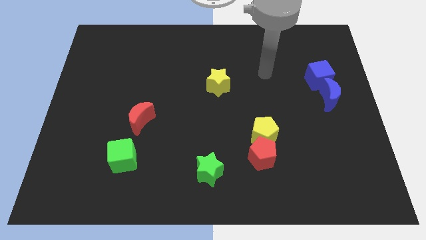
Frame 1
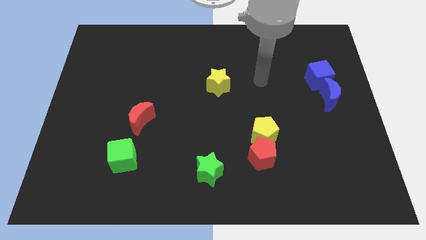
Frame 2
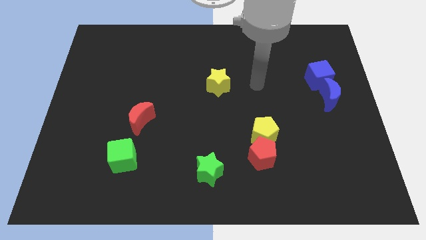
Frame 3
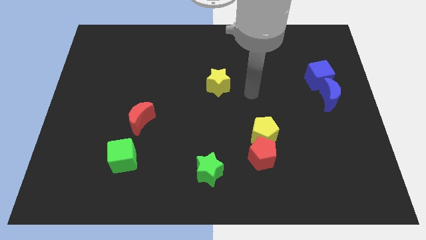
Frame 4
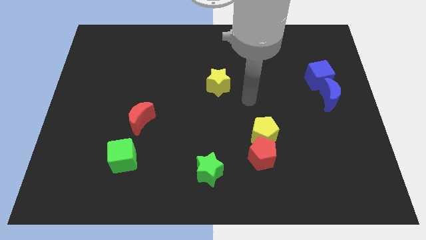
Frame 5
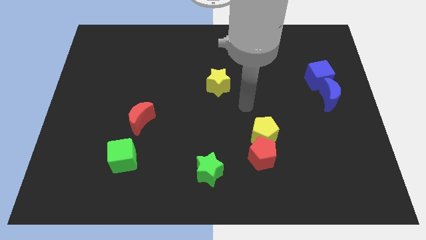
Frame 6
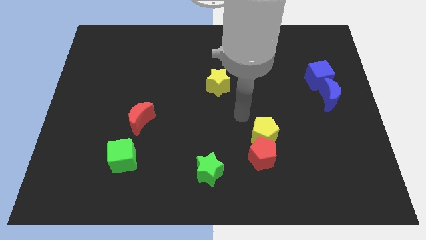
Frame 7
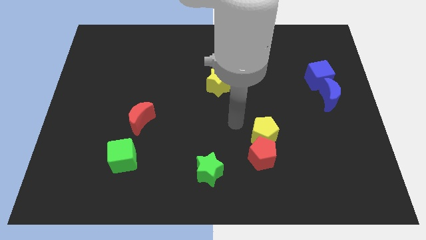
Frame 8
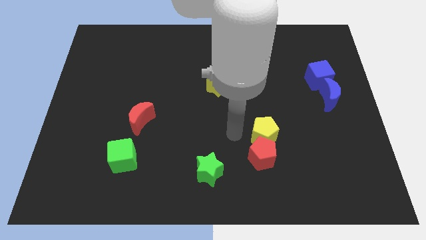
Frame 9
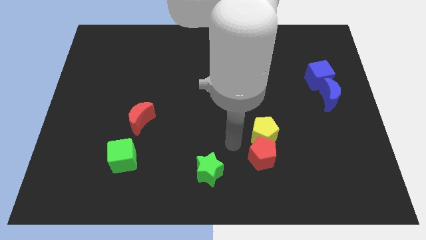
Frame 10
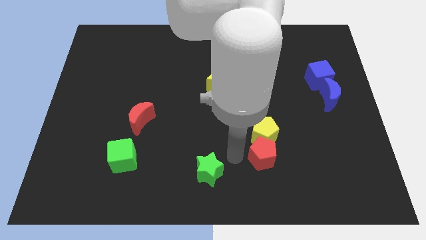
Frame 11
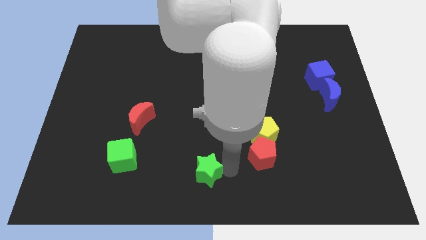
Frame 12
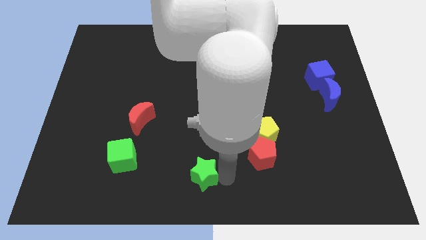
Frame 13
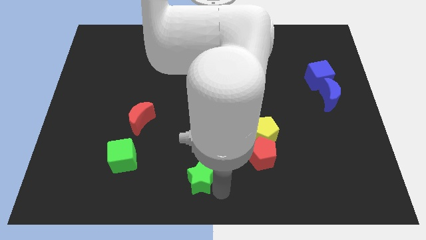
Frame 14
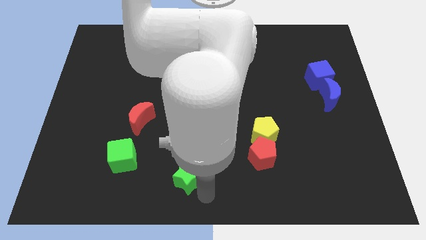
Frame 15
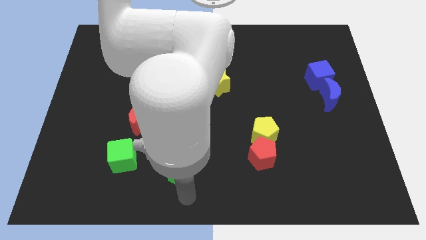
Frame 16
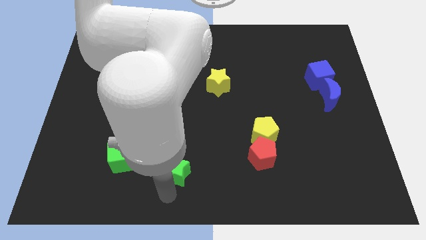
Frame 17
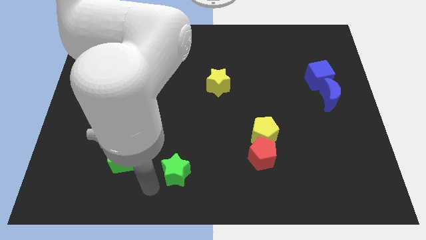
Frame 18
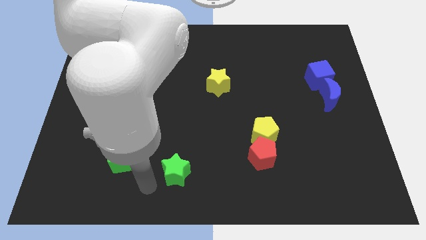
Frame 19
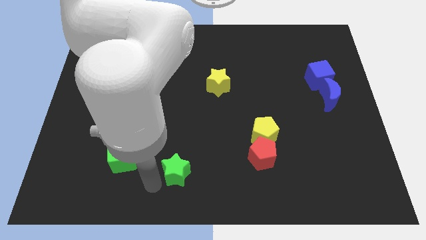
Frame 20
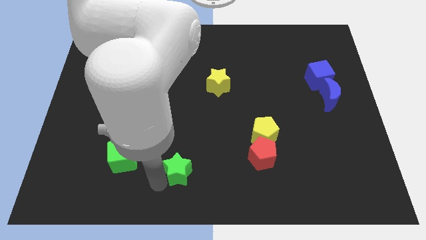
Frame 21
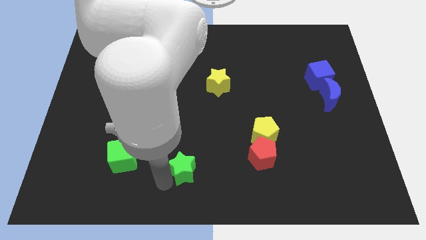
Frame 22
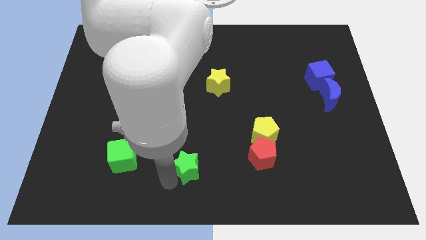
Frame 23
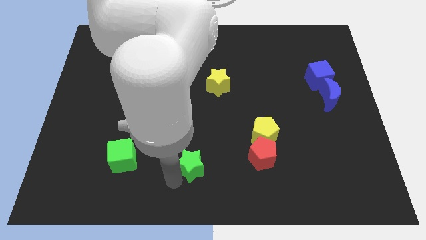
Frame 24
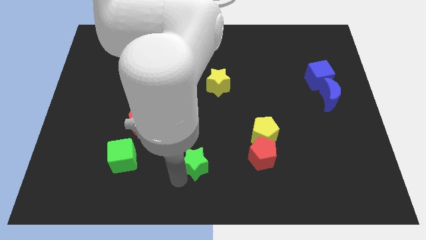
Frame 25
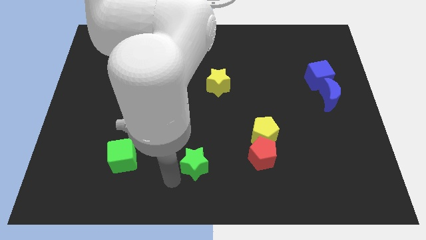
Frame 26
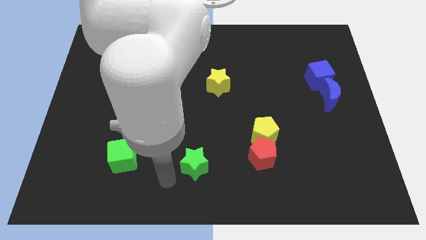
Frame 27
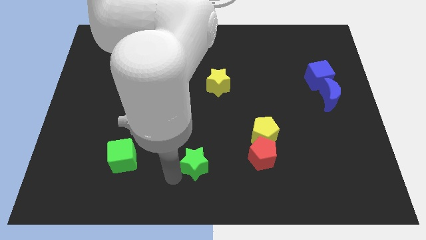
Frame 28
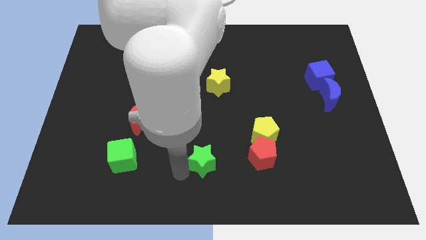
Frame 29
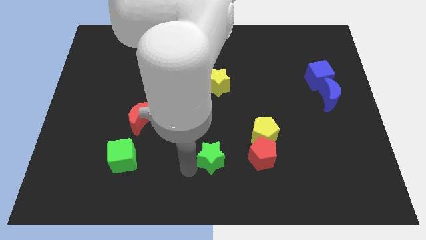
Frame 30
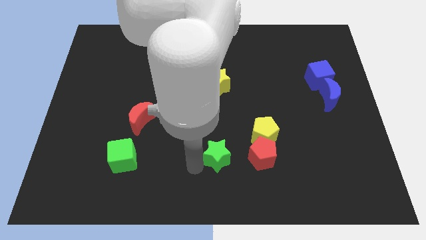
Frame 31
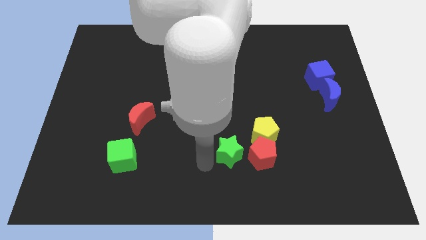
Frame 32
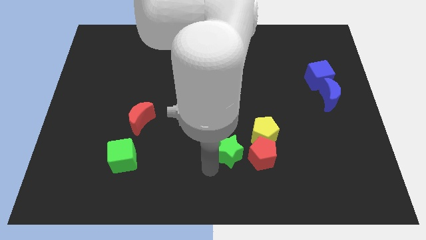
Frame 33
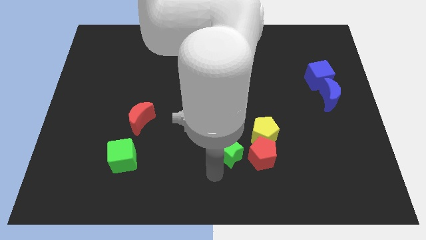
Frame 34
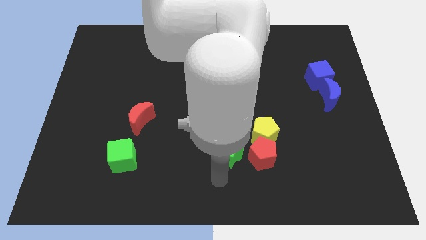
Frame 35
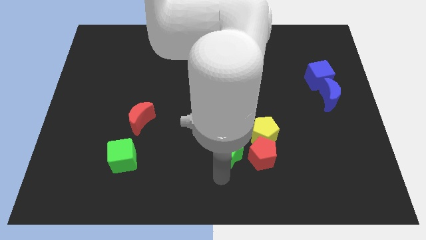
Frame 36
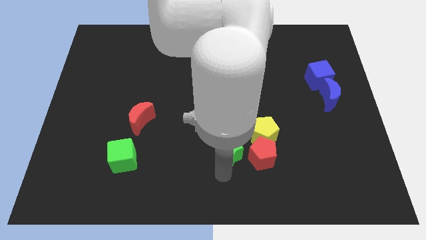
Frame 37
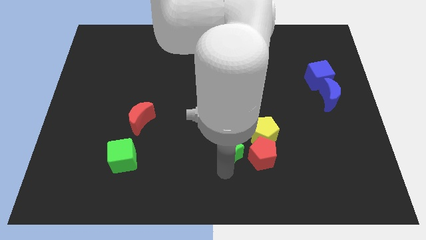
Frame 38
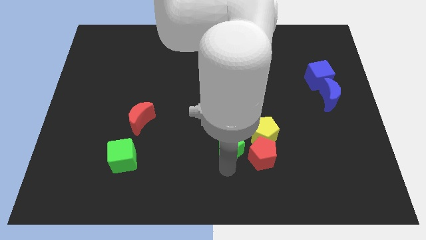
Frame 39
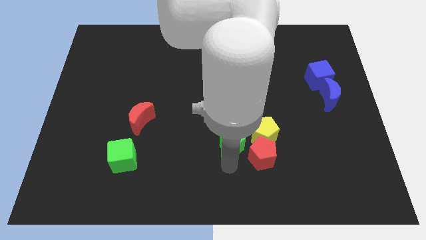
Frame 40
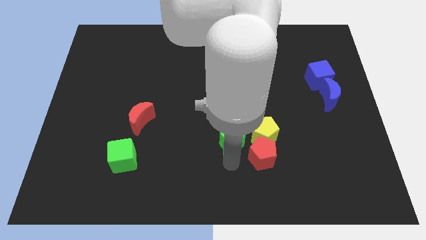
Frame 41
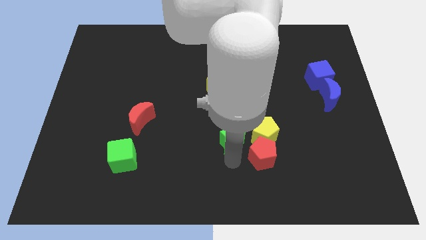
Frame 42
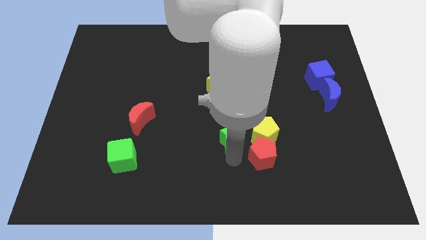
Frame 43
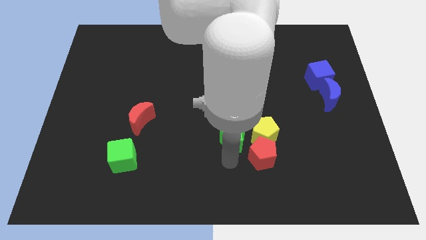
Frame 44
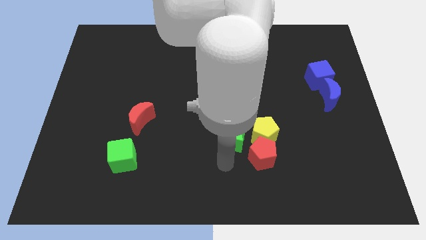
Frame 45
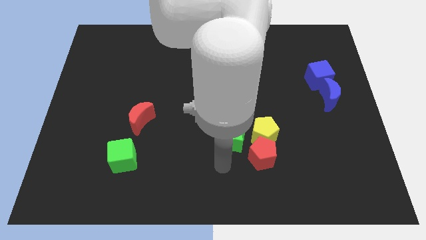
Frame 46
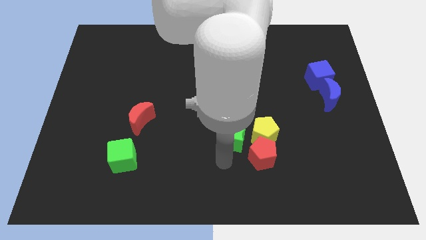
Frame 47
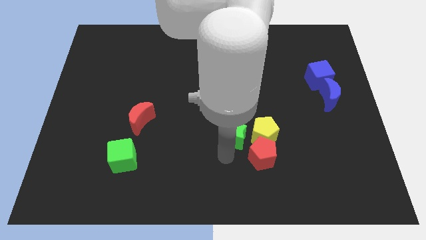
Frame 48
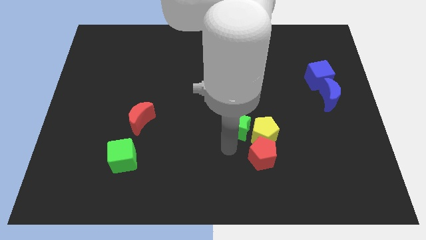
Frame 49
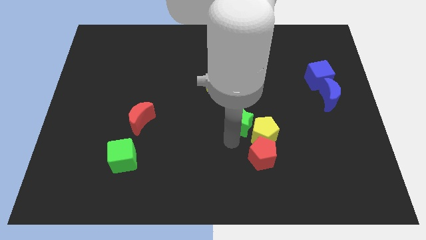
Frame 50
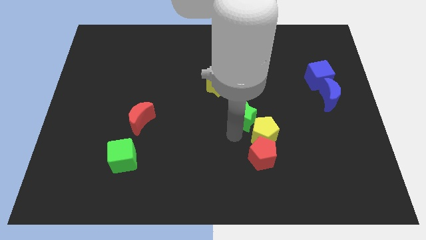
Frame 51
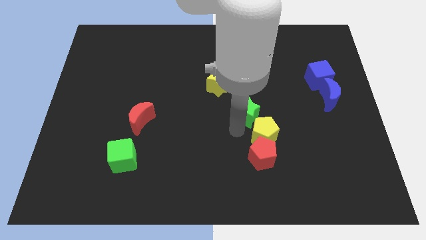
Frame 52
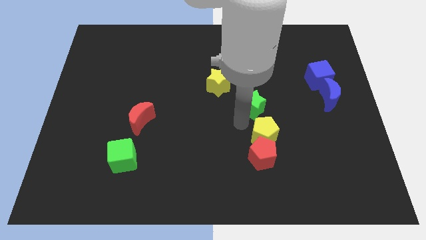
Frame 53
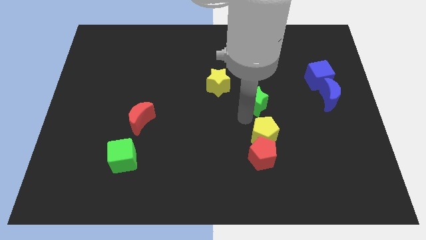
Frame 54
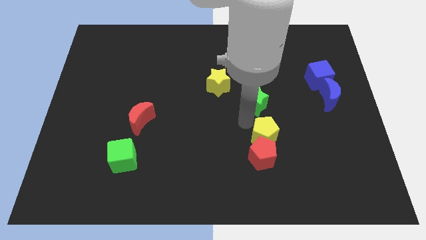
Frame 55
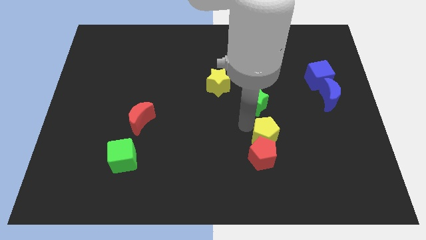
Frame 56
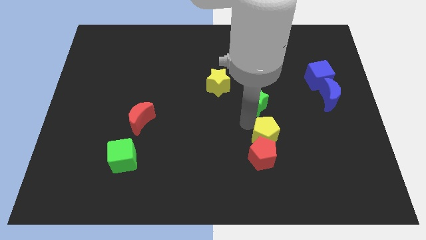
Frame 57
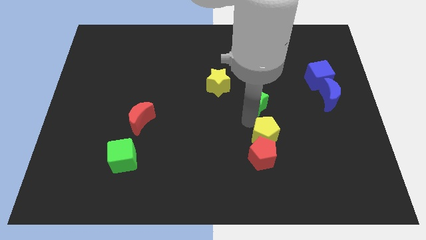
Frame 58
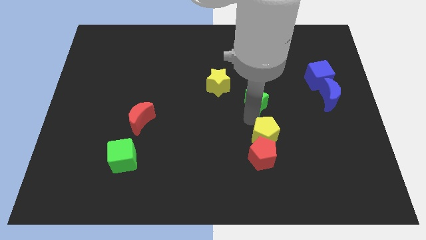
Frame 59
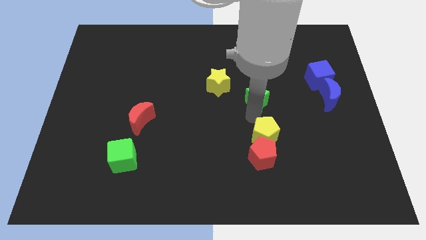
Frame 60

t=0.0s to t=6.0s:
push the green star right of the yellow star

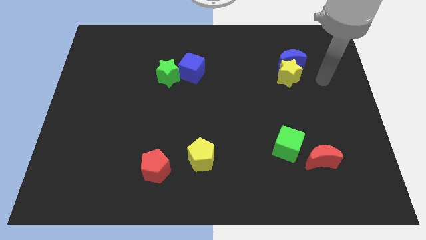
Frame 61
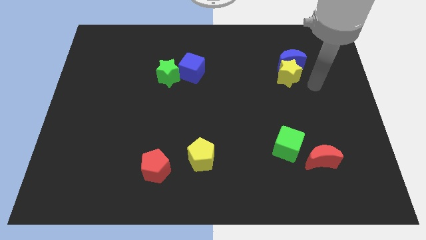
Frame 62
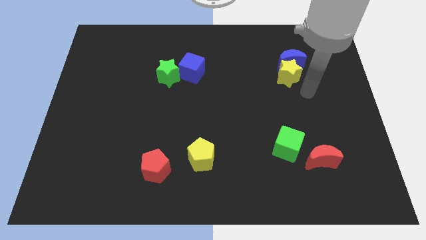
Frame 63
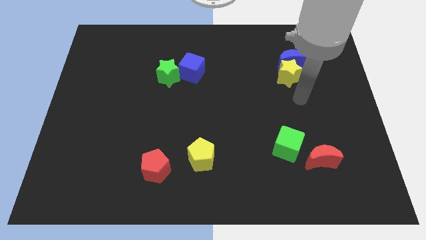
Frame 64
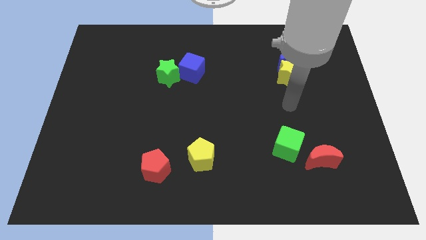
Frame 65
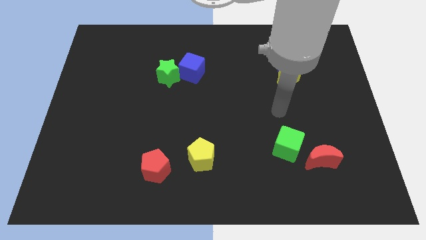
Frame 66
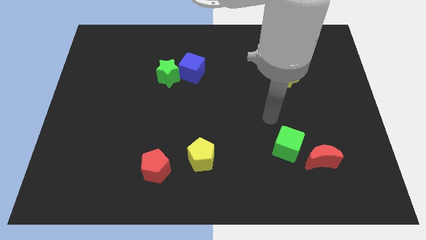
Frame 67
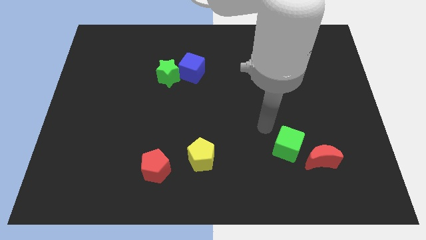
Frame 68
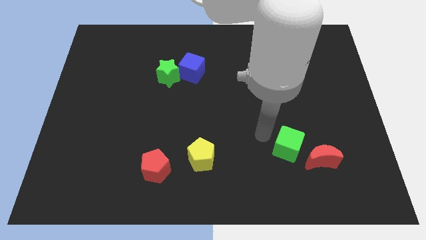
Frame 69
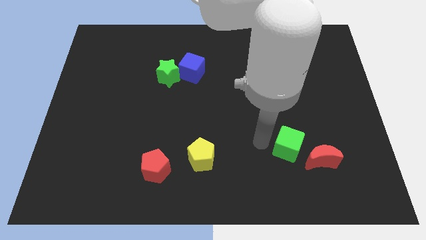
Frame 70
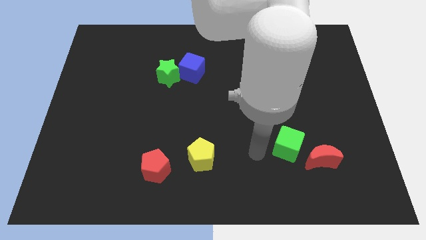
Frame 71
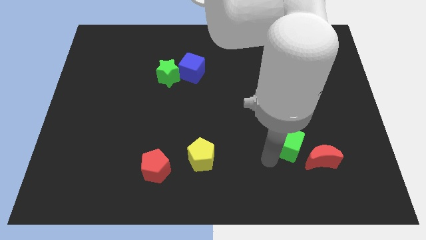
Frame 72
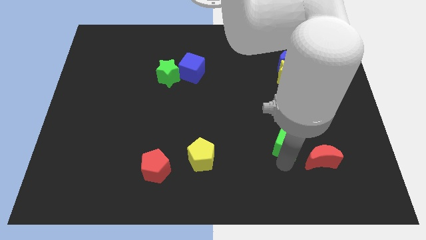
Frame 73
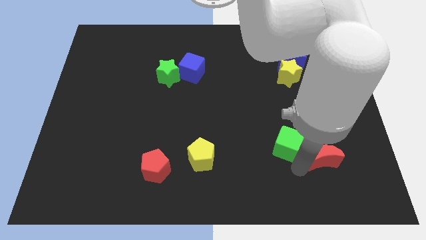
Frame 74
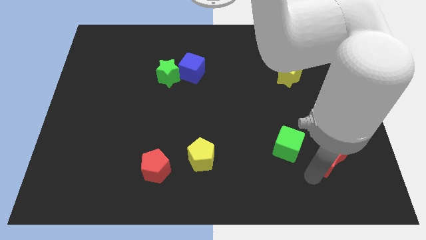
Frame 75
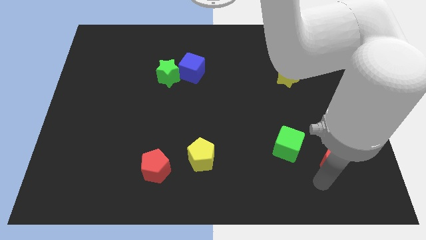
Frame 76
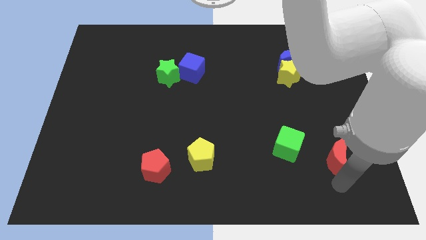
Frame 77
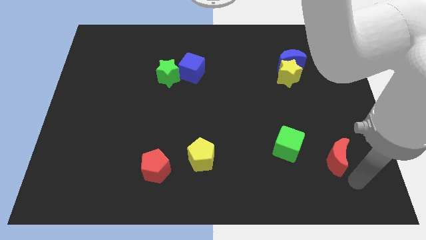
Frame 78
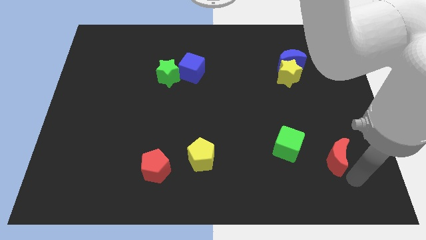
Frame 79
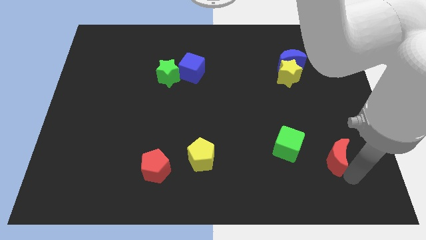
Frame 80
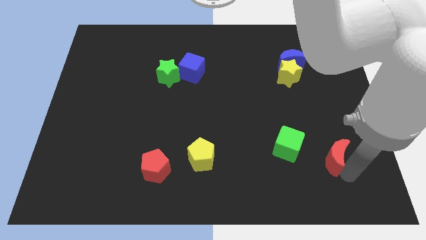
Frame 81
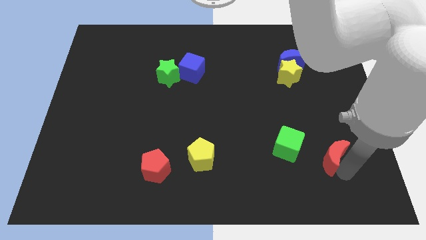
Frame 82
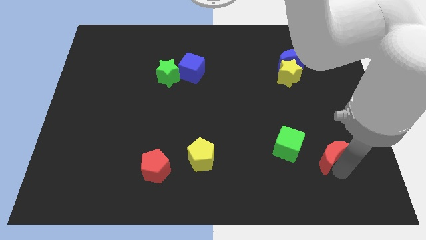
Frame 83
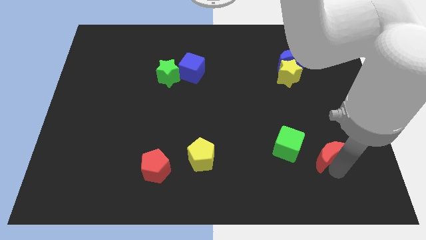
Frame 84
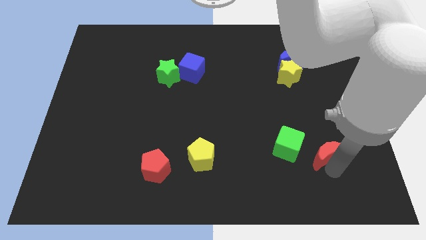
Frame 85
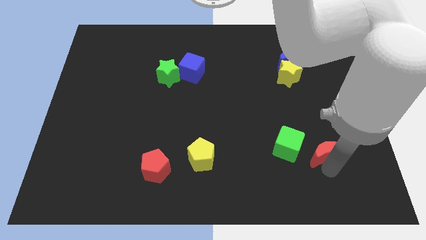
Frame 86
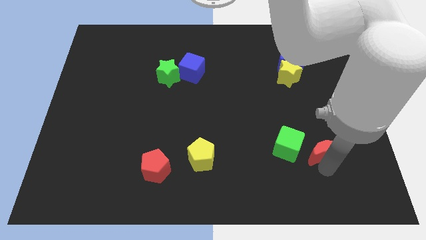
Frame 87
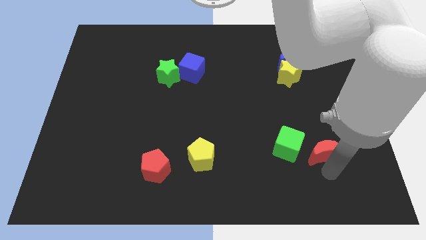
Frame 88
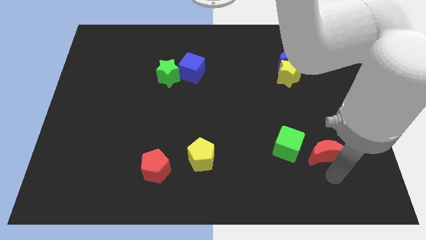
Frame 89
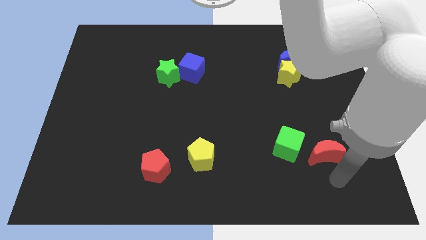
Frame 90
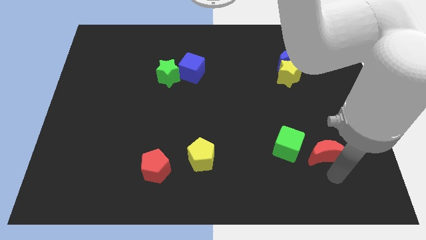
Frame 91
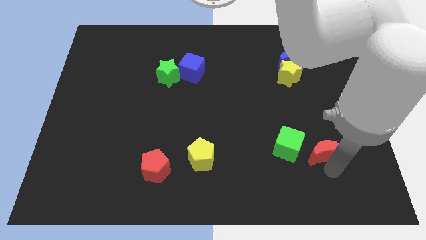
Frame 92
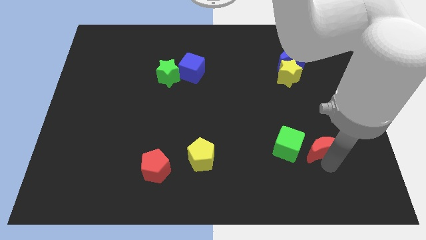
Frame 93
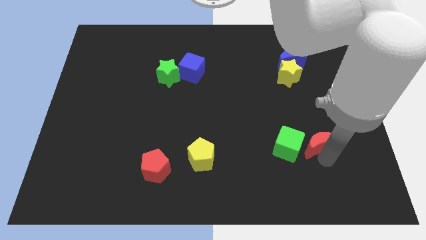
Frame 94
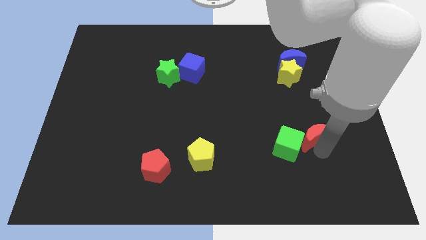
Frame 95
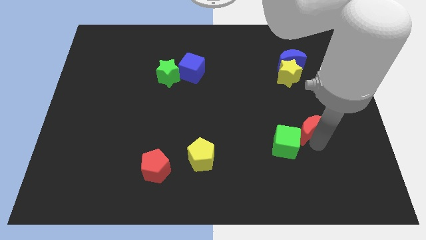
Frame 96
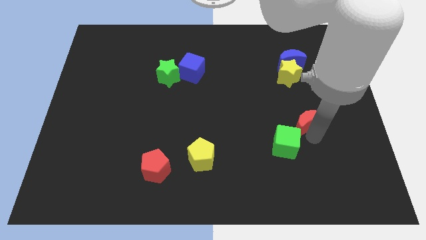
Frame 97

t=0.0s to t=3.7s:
put the red moon below the yellow star
